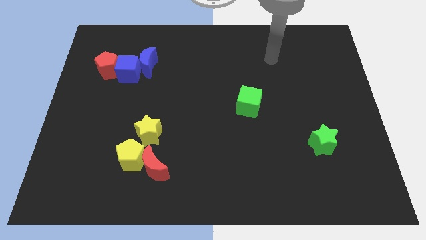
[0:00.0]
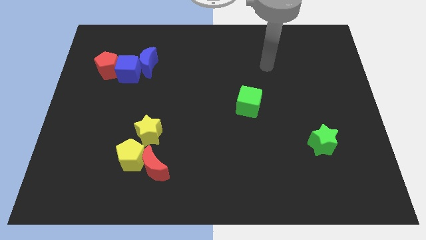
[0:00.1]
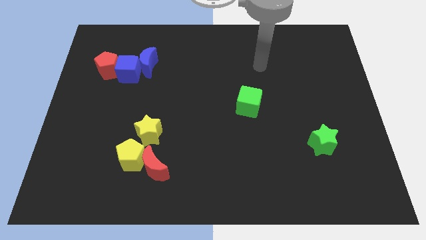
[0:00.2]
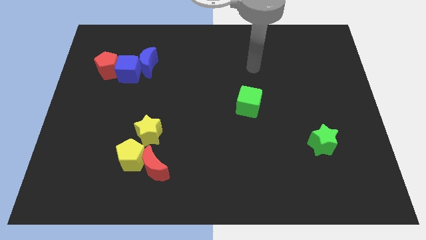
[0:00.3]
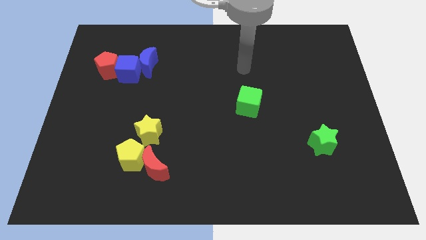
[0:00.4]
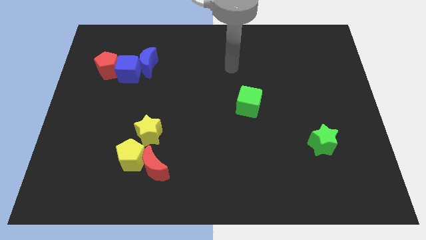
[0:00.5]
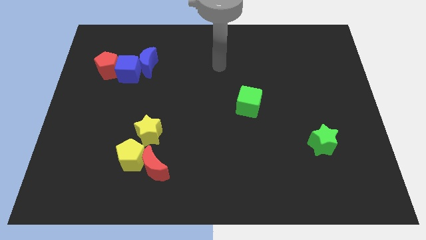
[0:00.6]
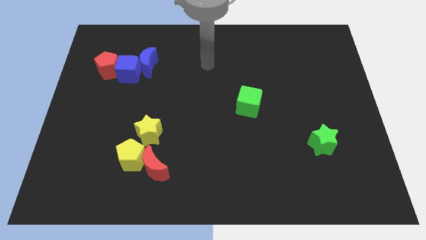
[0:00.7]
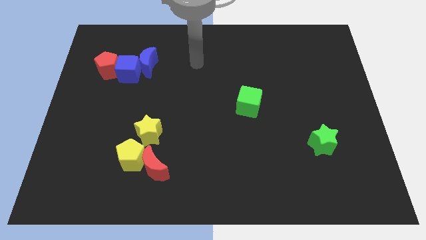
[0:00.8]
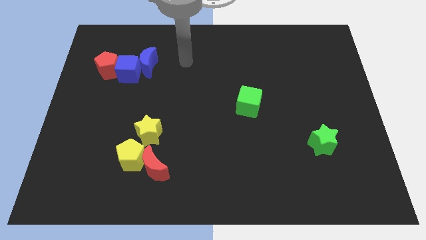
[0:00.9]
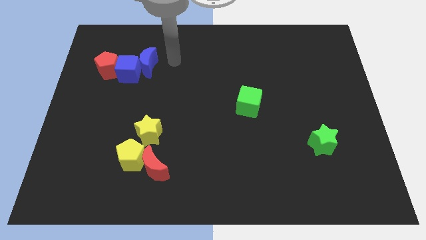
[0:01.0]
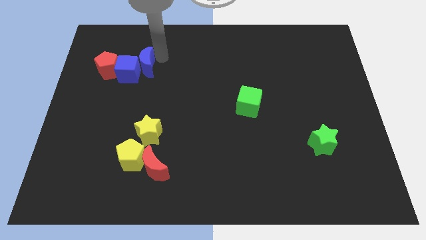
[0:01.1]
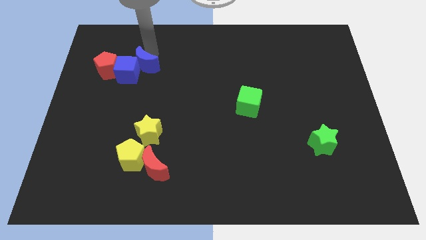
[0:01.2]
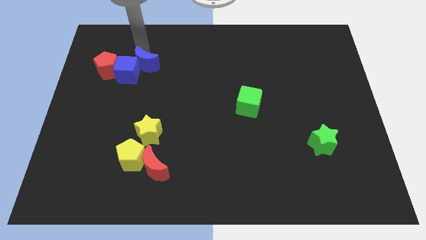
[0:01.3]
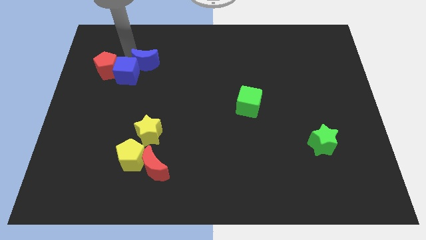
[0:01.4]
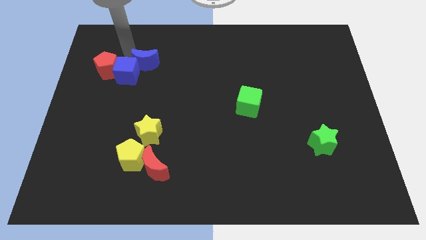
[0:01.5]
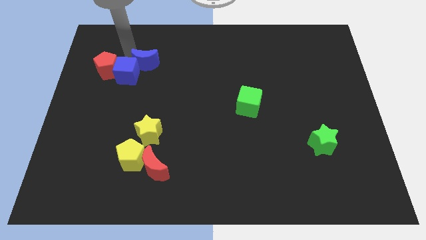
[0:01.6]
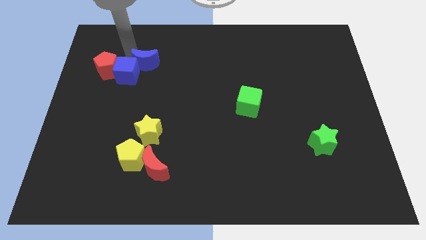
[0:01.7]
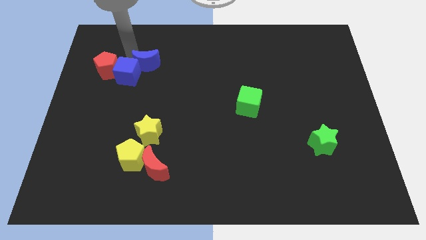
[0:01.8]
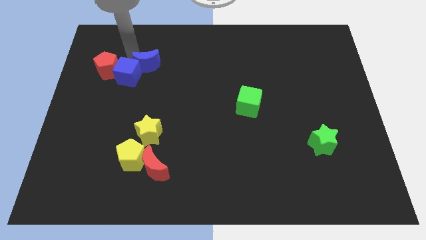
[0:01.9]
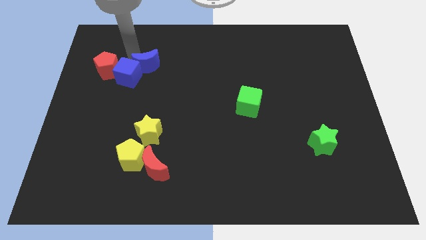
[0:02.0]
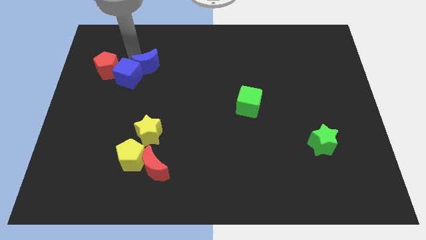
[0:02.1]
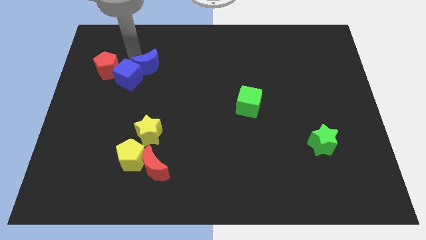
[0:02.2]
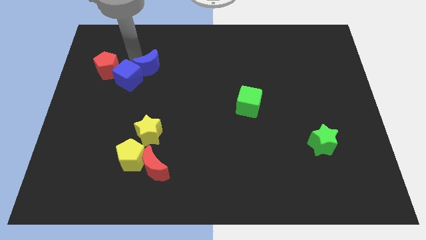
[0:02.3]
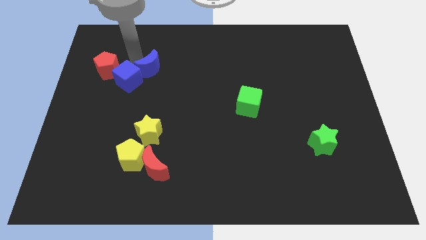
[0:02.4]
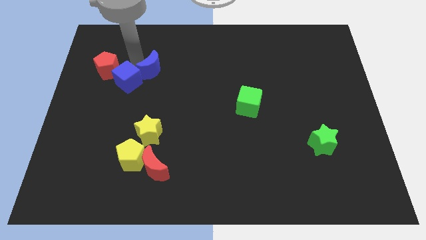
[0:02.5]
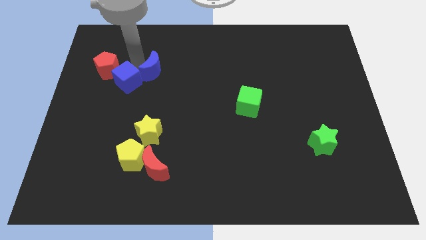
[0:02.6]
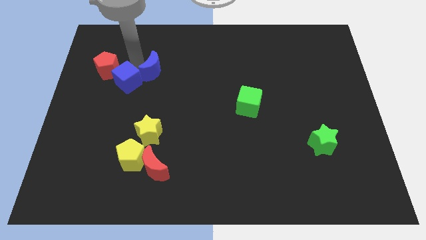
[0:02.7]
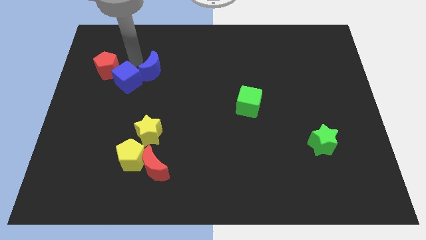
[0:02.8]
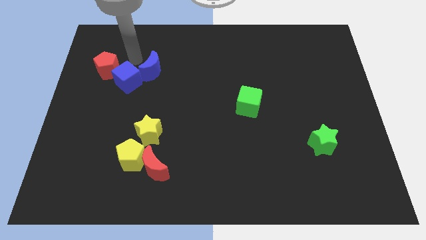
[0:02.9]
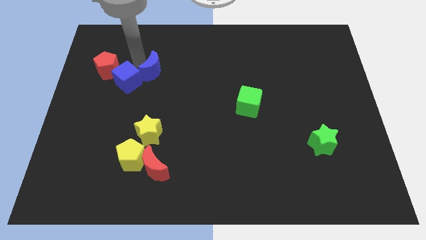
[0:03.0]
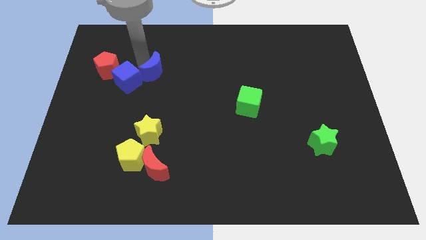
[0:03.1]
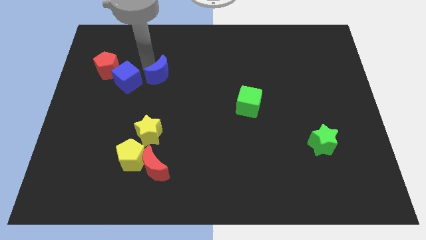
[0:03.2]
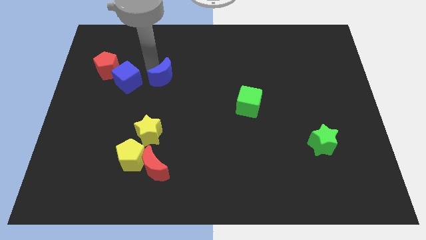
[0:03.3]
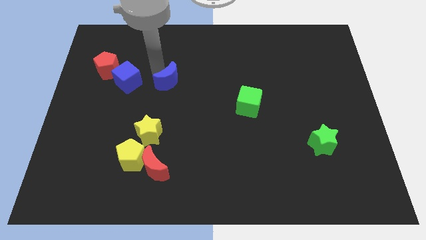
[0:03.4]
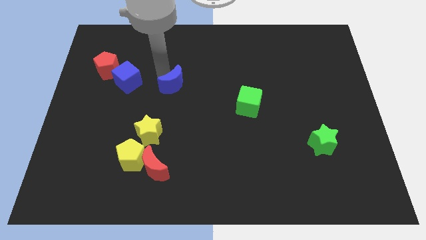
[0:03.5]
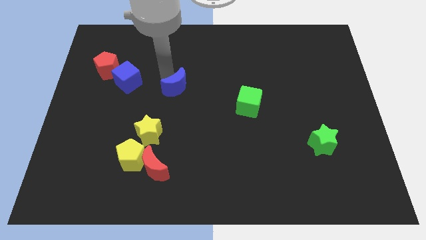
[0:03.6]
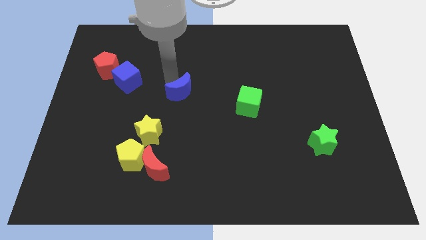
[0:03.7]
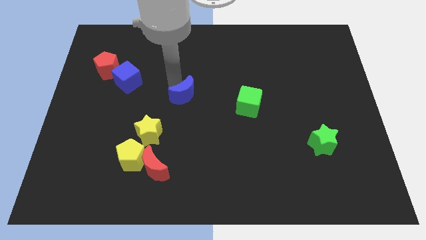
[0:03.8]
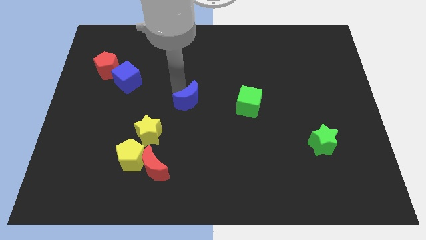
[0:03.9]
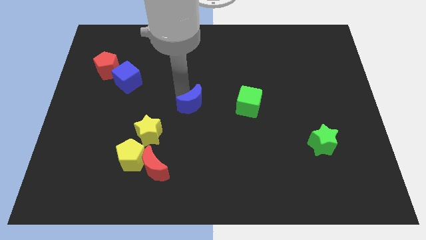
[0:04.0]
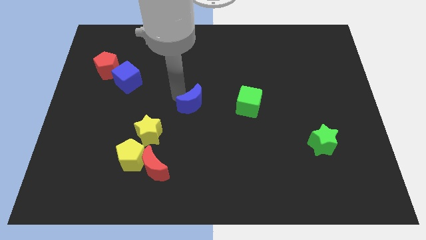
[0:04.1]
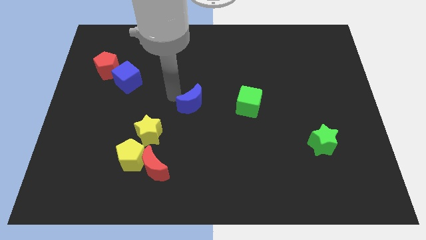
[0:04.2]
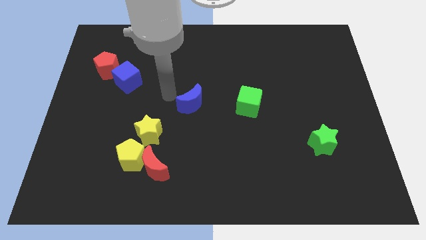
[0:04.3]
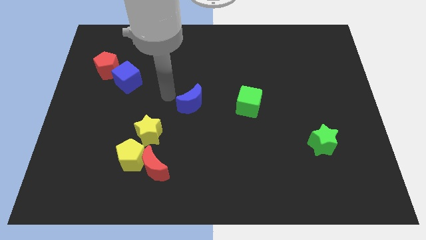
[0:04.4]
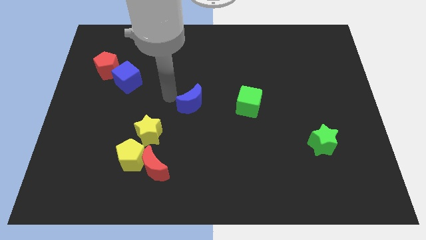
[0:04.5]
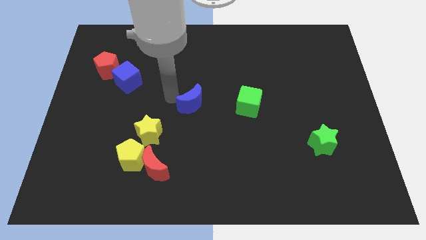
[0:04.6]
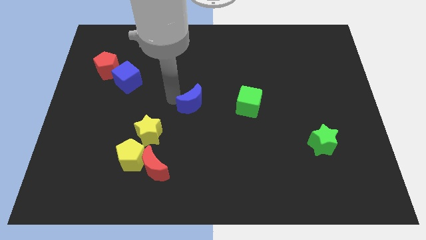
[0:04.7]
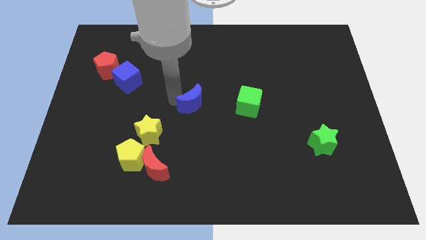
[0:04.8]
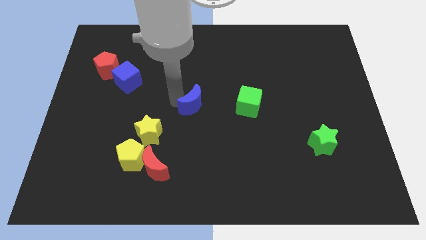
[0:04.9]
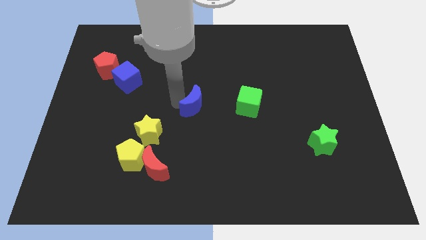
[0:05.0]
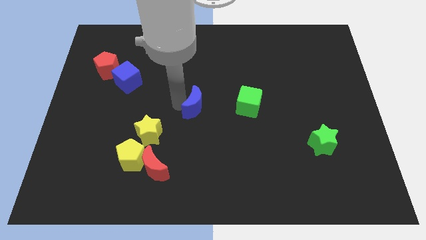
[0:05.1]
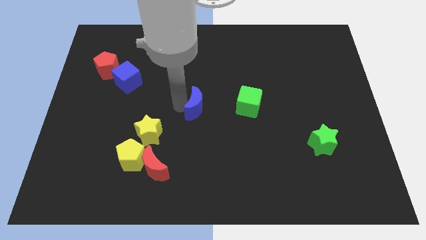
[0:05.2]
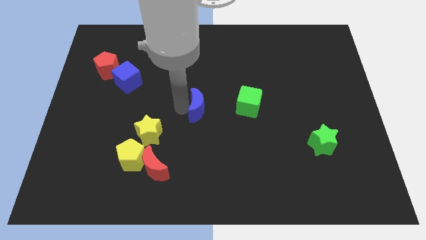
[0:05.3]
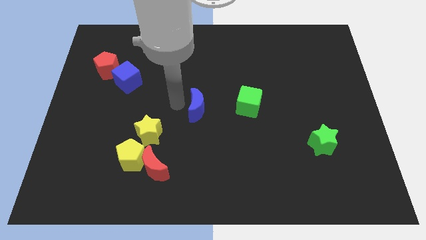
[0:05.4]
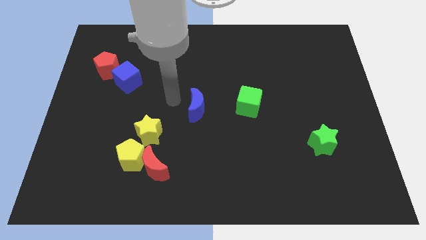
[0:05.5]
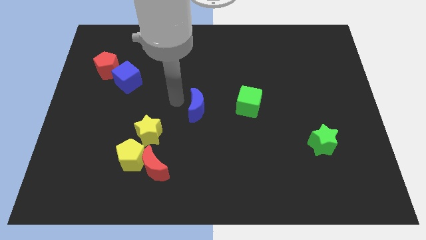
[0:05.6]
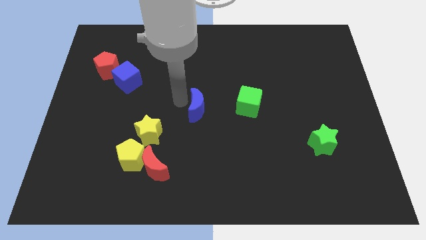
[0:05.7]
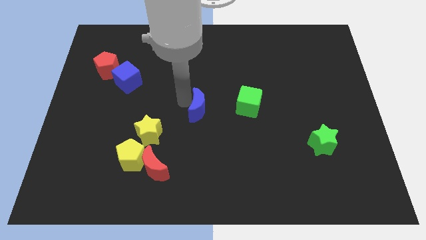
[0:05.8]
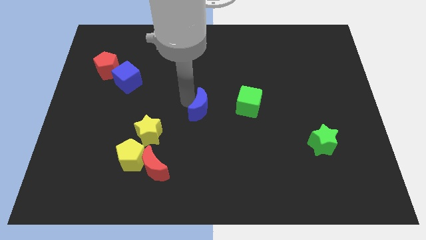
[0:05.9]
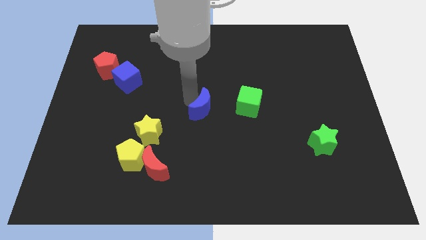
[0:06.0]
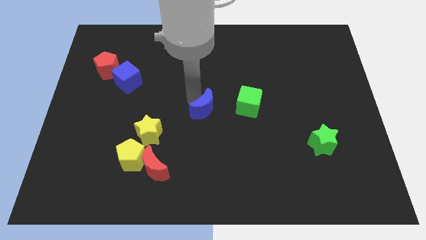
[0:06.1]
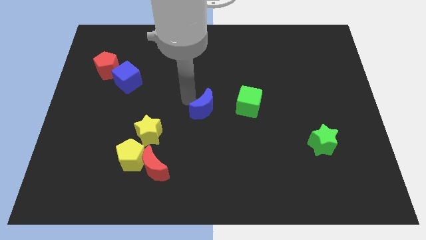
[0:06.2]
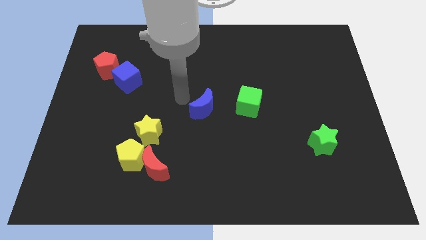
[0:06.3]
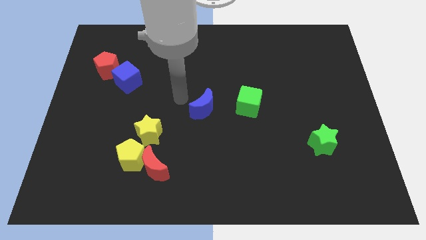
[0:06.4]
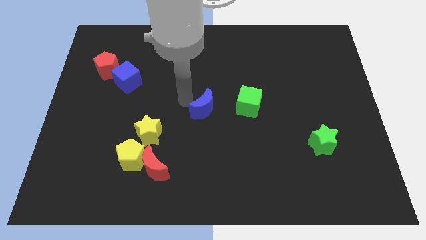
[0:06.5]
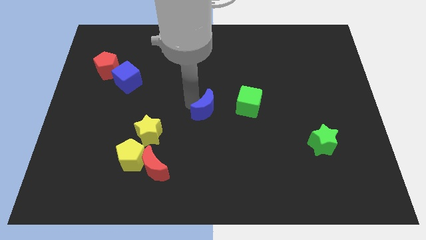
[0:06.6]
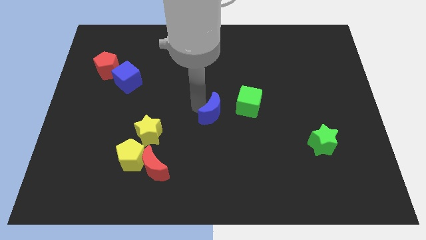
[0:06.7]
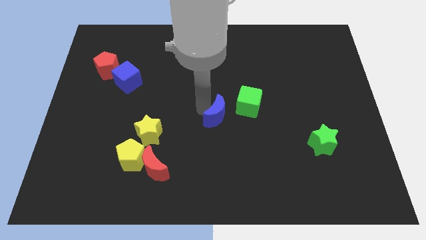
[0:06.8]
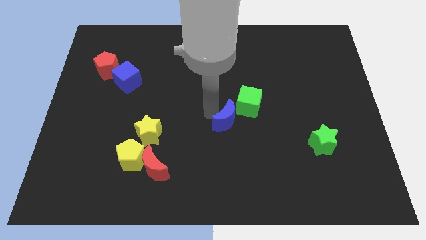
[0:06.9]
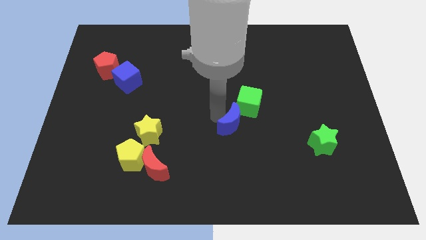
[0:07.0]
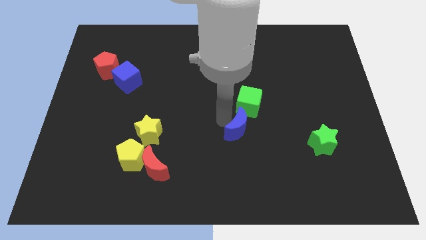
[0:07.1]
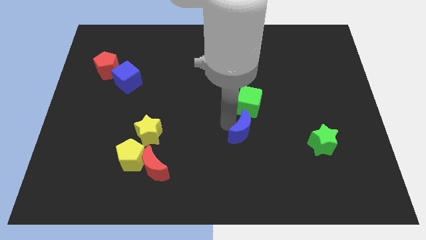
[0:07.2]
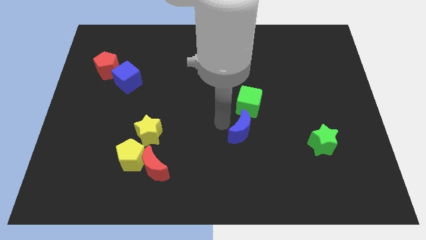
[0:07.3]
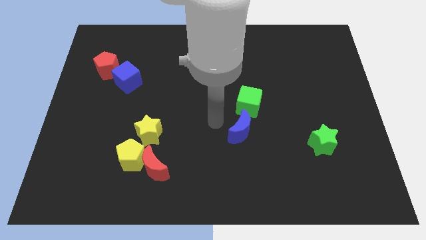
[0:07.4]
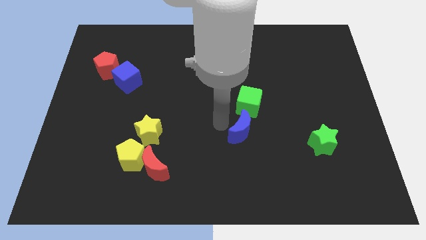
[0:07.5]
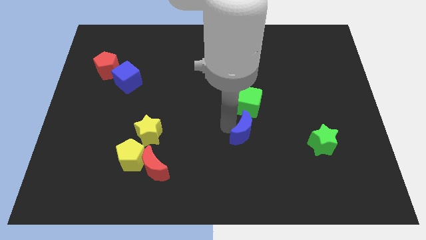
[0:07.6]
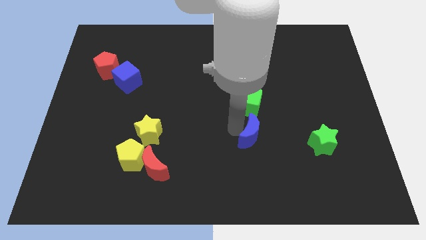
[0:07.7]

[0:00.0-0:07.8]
put the blue moon to the left side of the green star
